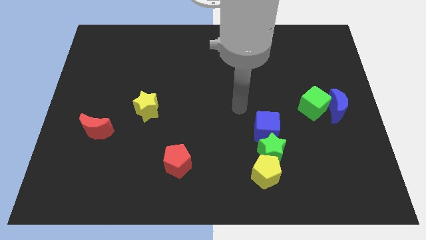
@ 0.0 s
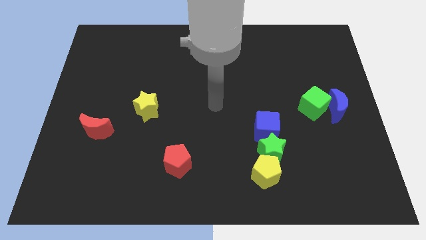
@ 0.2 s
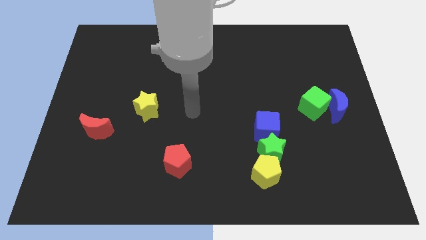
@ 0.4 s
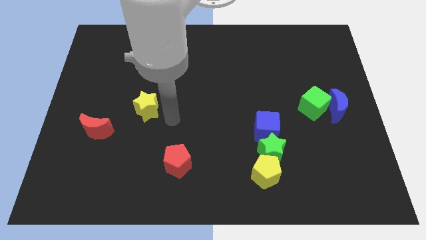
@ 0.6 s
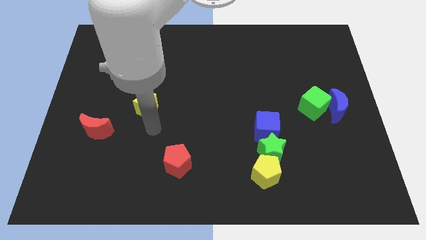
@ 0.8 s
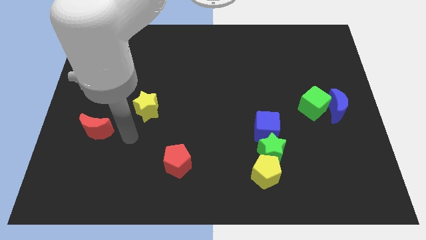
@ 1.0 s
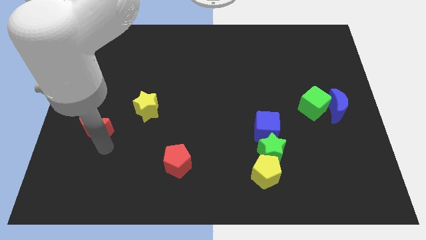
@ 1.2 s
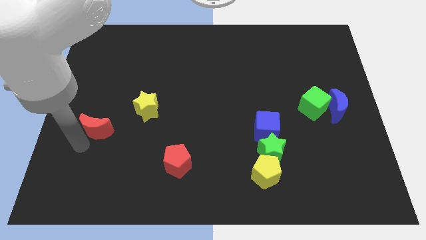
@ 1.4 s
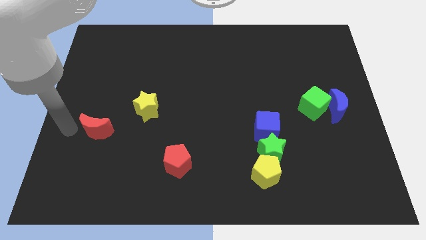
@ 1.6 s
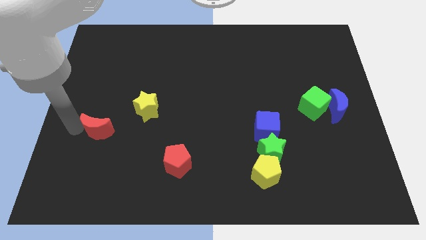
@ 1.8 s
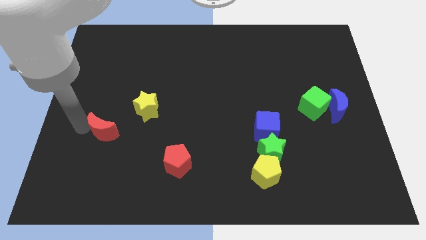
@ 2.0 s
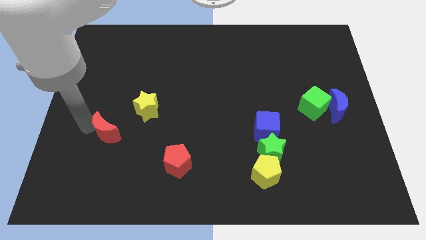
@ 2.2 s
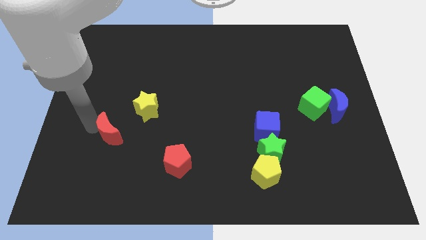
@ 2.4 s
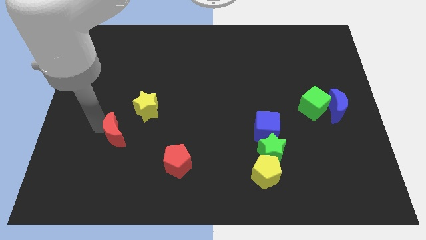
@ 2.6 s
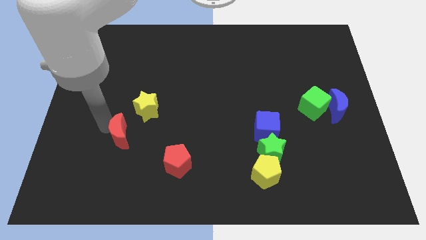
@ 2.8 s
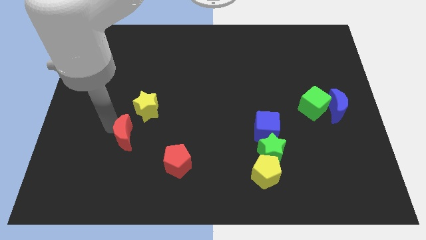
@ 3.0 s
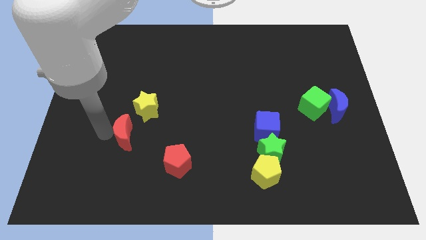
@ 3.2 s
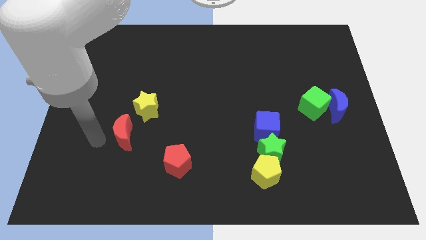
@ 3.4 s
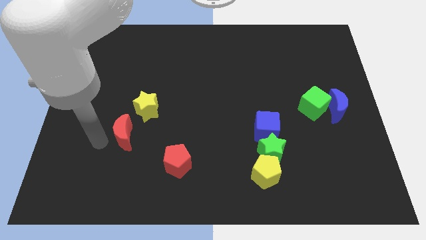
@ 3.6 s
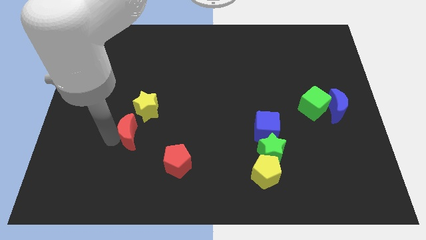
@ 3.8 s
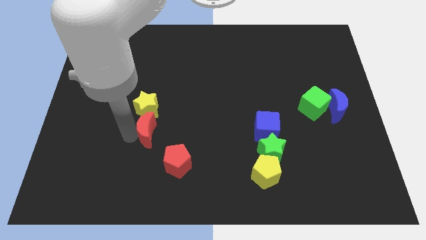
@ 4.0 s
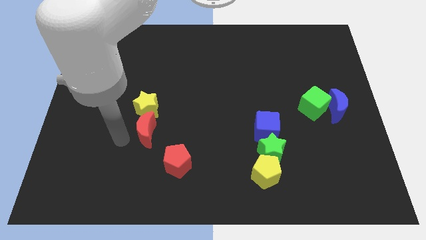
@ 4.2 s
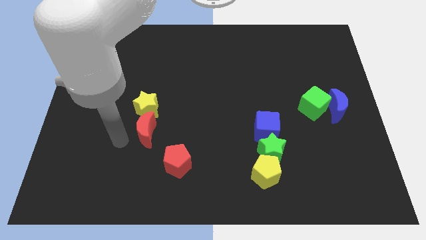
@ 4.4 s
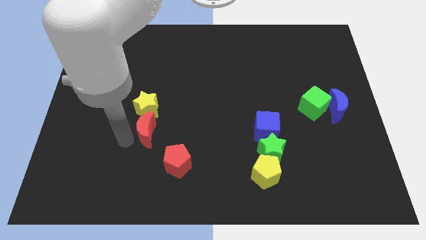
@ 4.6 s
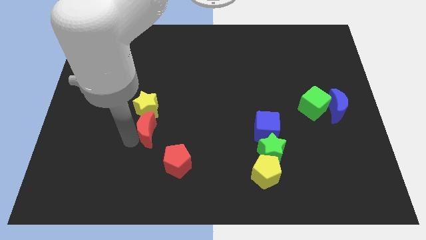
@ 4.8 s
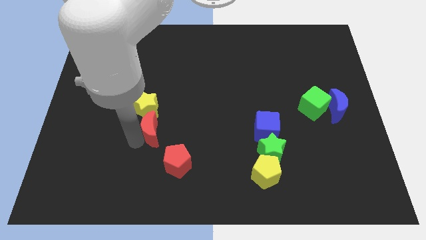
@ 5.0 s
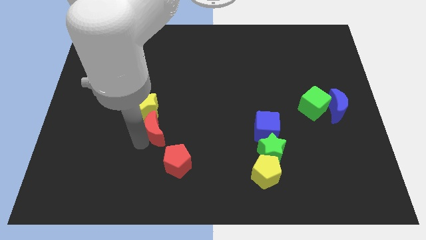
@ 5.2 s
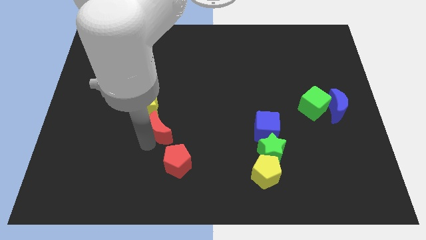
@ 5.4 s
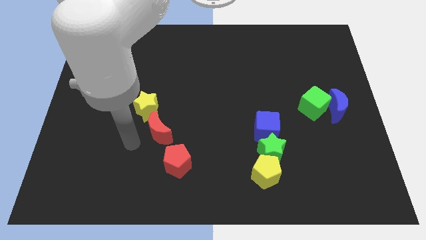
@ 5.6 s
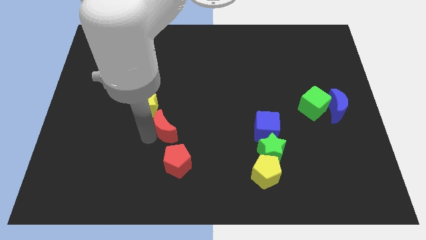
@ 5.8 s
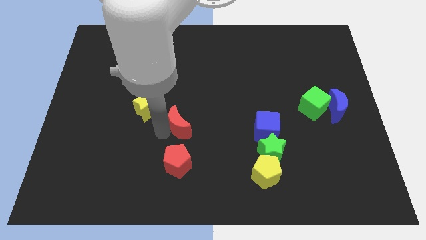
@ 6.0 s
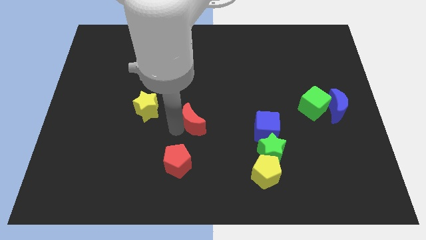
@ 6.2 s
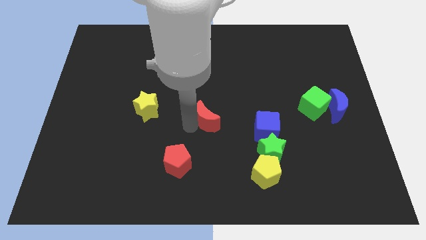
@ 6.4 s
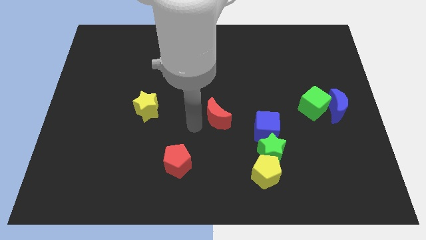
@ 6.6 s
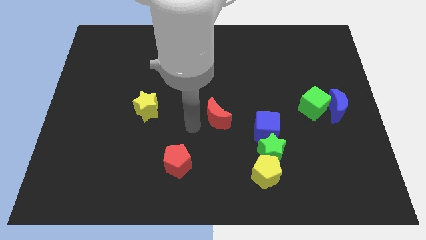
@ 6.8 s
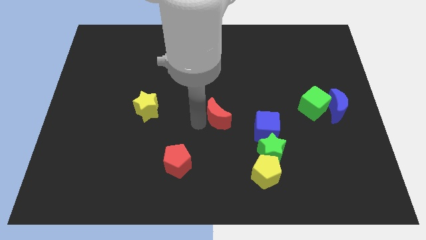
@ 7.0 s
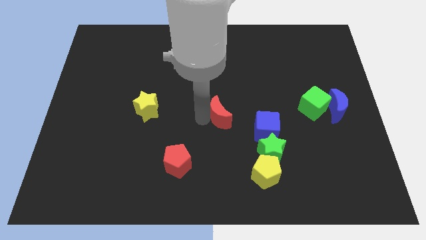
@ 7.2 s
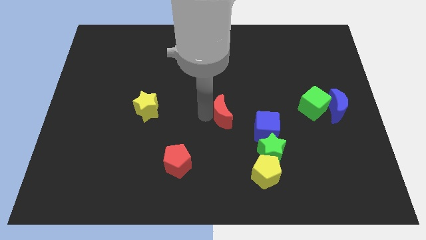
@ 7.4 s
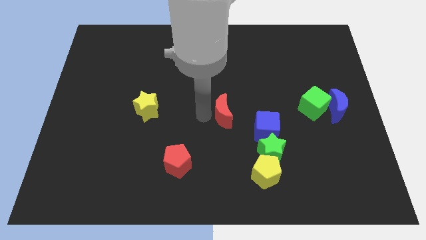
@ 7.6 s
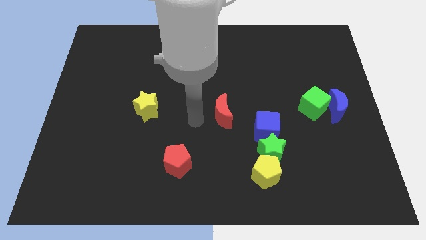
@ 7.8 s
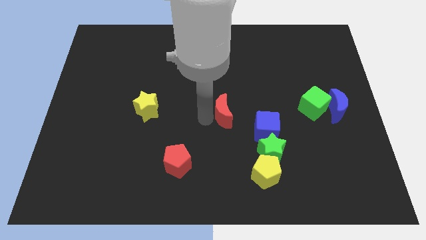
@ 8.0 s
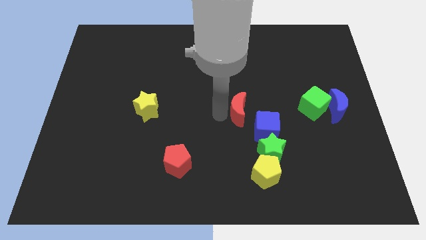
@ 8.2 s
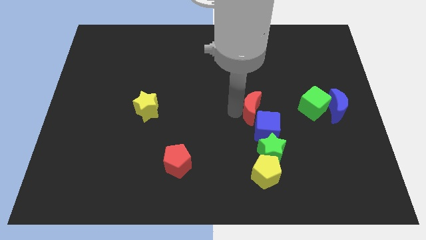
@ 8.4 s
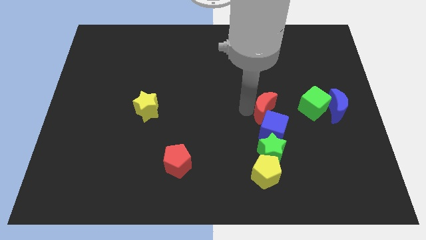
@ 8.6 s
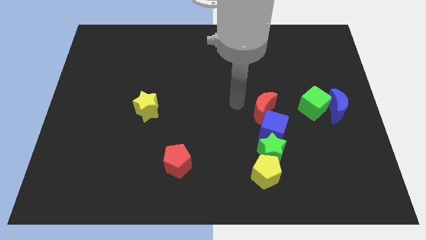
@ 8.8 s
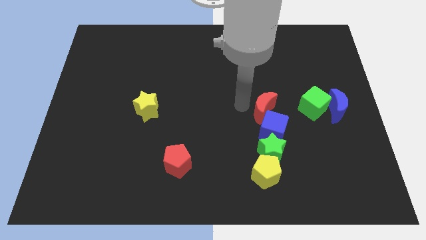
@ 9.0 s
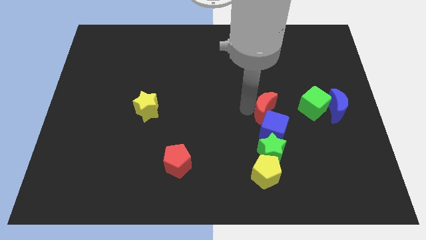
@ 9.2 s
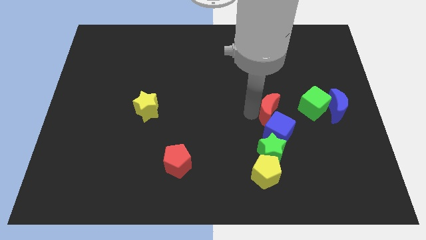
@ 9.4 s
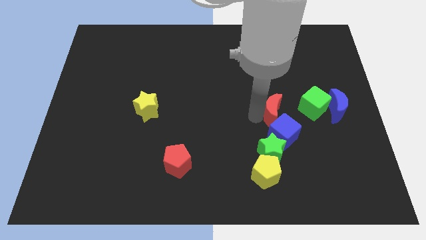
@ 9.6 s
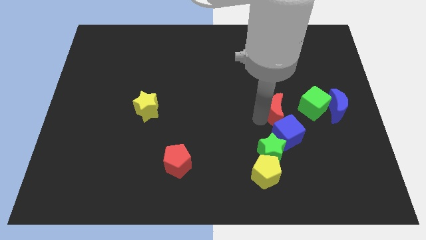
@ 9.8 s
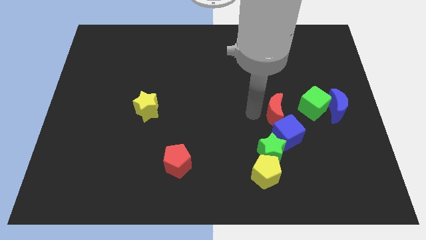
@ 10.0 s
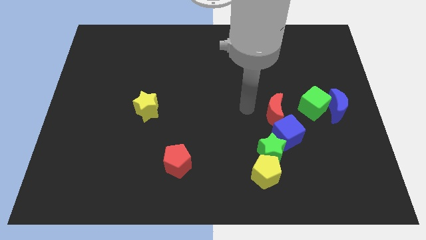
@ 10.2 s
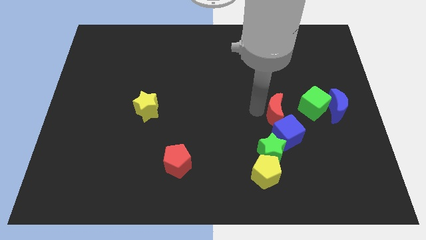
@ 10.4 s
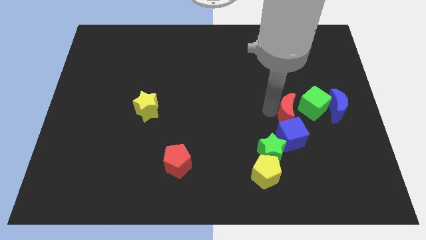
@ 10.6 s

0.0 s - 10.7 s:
move the red moon to the top right of the green star

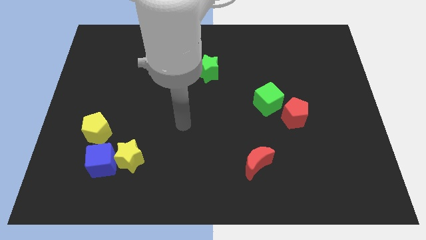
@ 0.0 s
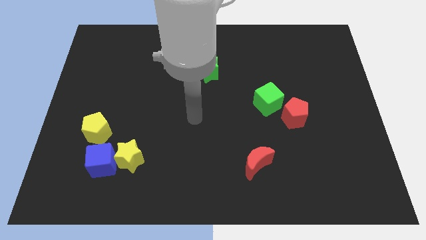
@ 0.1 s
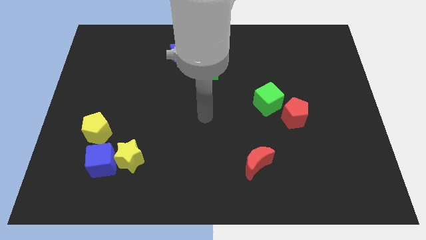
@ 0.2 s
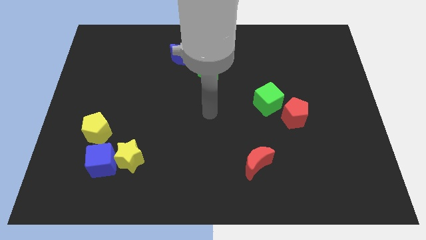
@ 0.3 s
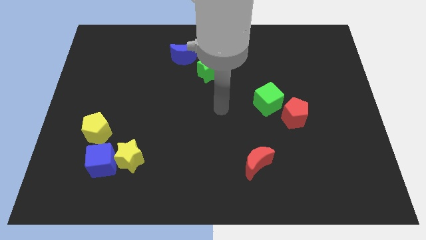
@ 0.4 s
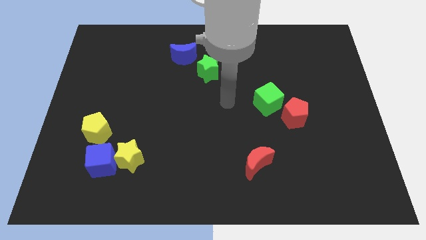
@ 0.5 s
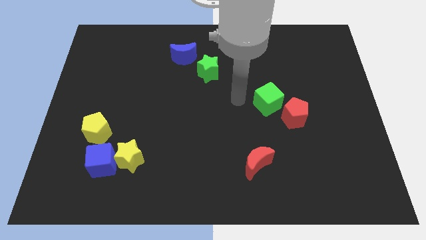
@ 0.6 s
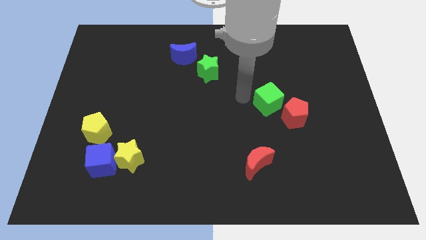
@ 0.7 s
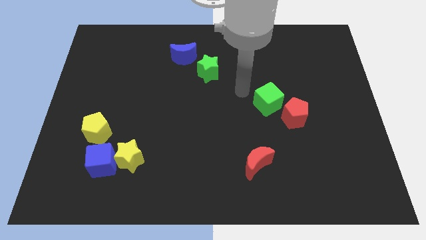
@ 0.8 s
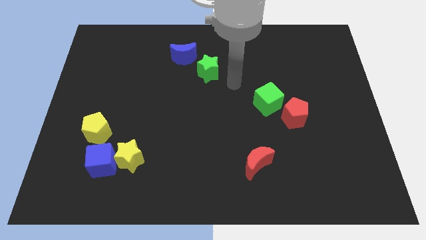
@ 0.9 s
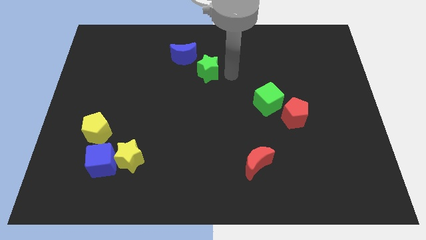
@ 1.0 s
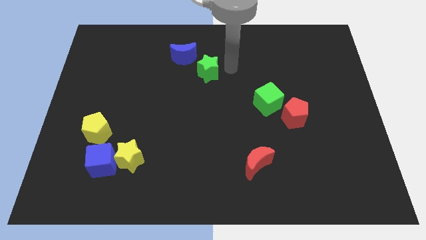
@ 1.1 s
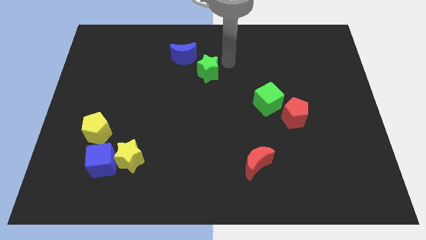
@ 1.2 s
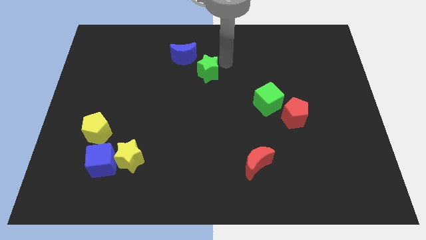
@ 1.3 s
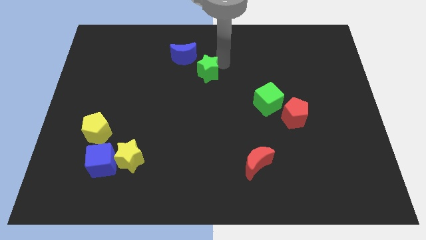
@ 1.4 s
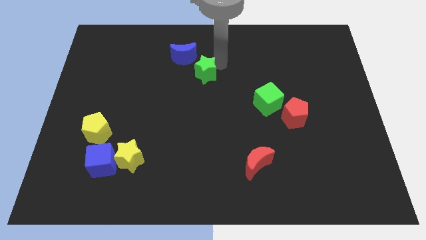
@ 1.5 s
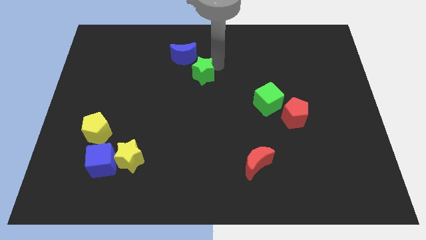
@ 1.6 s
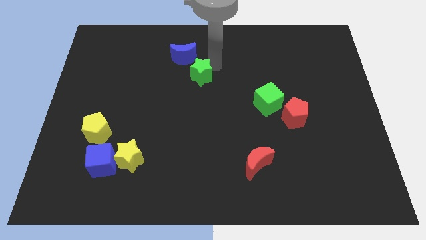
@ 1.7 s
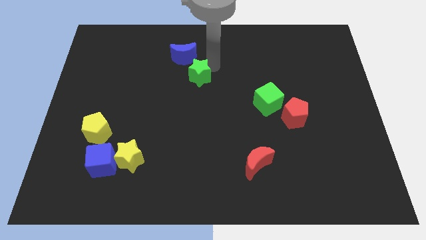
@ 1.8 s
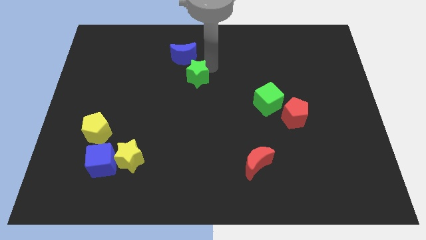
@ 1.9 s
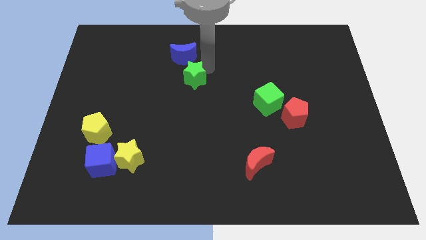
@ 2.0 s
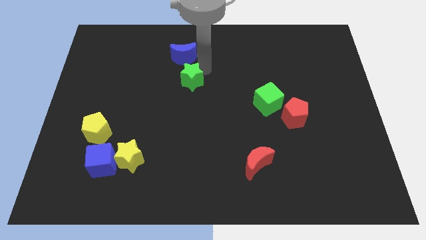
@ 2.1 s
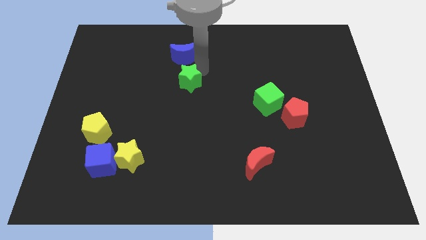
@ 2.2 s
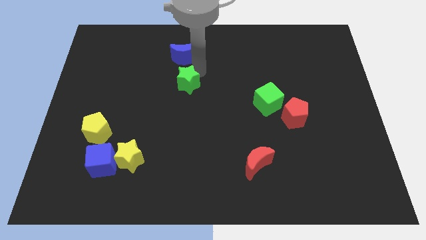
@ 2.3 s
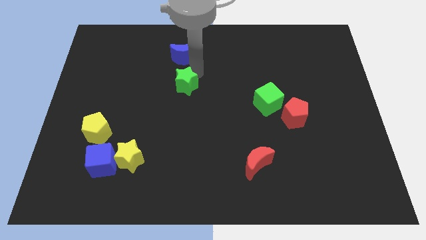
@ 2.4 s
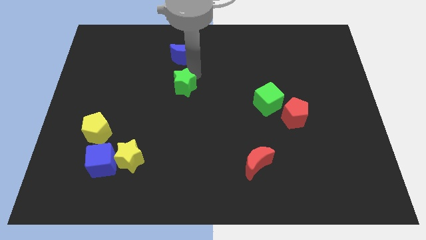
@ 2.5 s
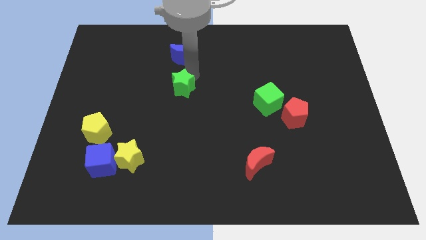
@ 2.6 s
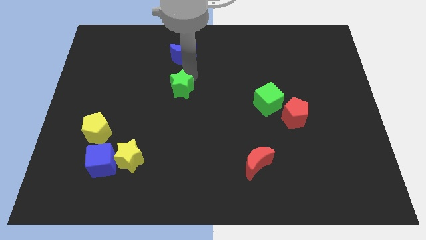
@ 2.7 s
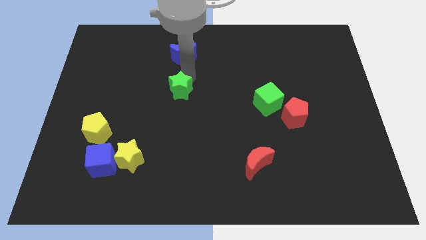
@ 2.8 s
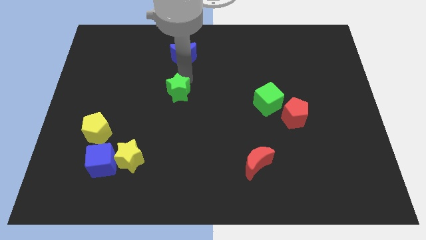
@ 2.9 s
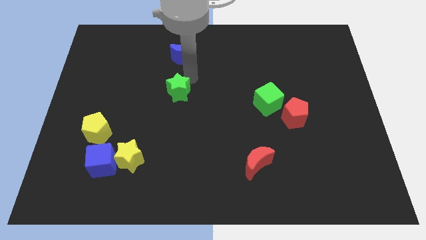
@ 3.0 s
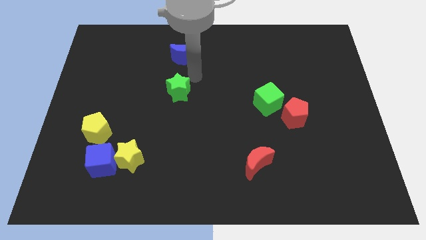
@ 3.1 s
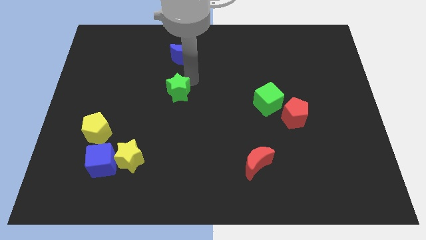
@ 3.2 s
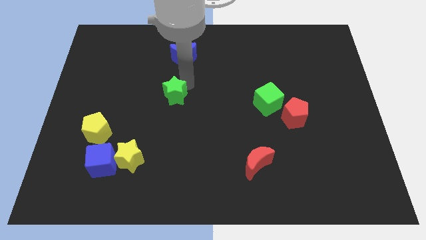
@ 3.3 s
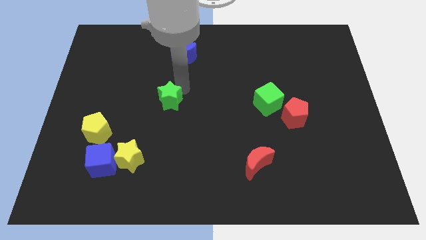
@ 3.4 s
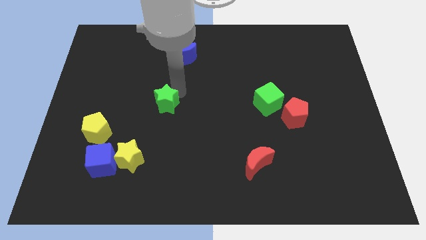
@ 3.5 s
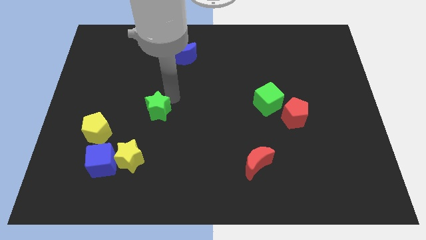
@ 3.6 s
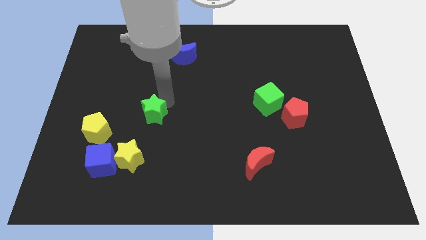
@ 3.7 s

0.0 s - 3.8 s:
put the green star right of the yellow pentagon
